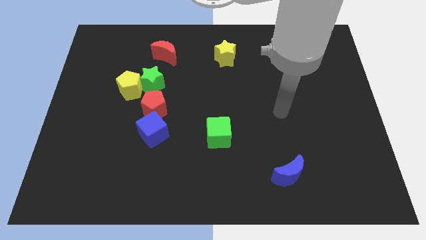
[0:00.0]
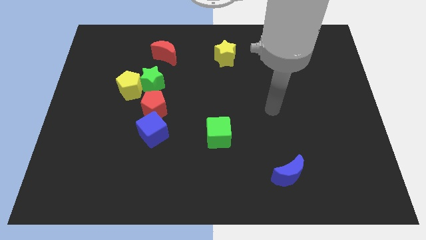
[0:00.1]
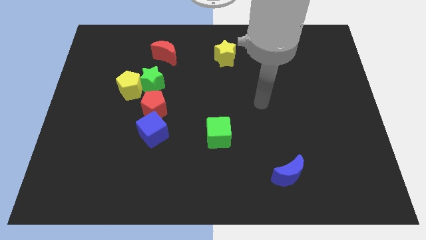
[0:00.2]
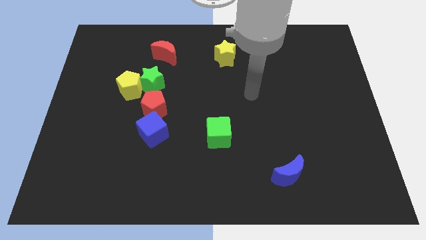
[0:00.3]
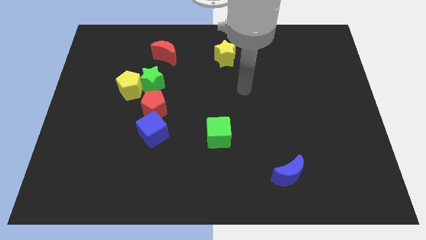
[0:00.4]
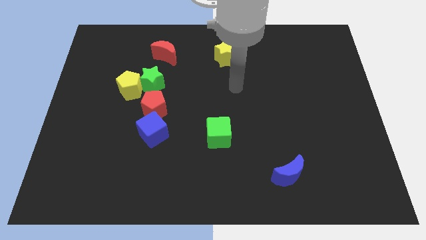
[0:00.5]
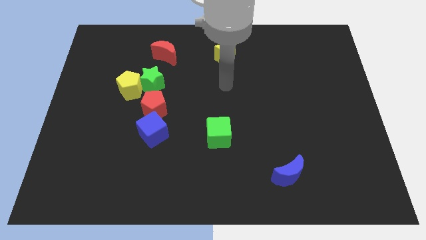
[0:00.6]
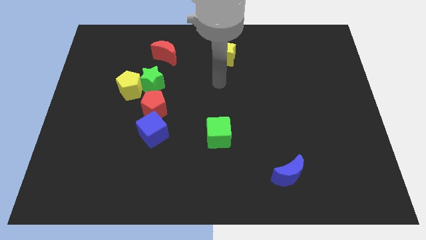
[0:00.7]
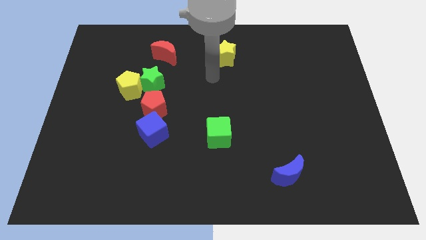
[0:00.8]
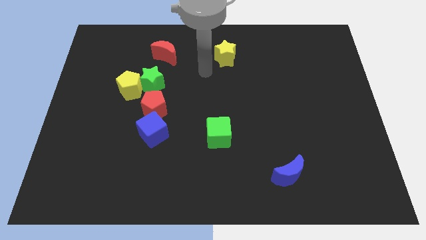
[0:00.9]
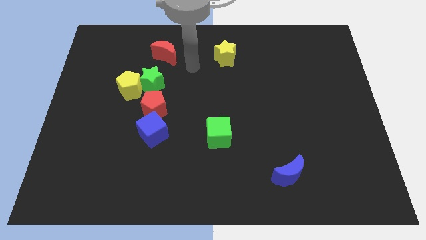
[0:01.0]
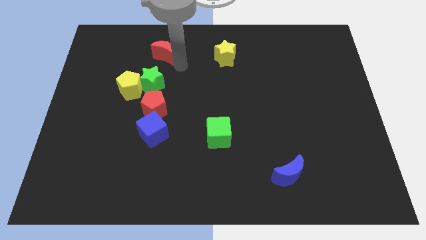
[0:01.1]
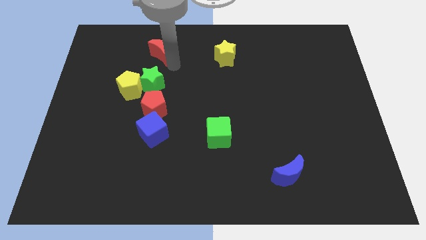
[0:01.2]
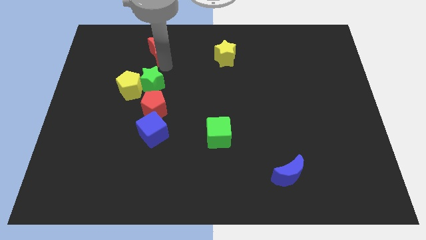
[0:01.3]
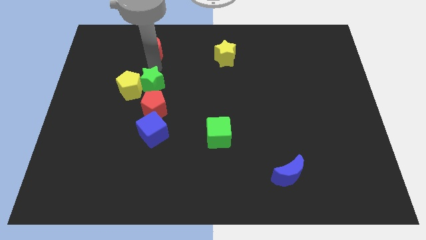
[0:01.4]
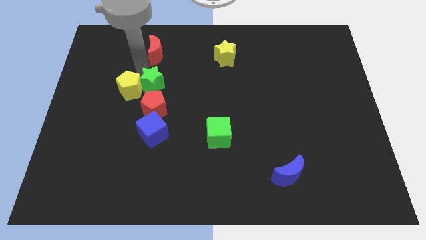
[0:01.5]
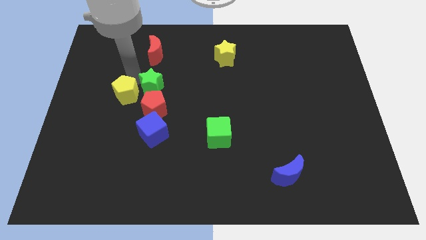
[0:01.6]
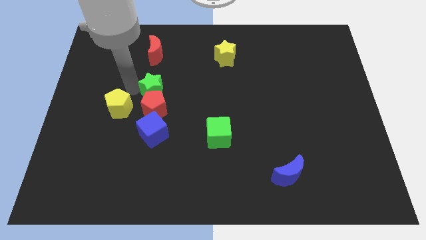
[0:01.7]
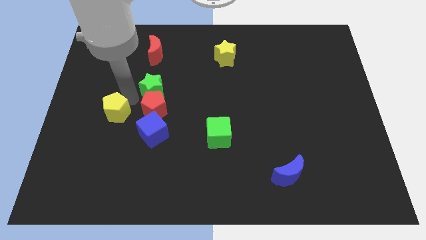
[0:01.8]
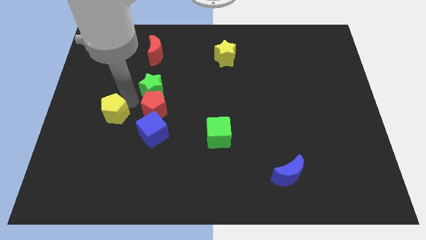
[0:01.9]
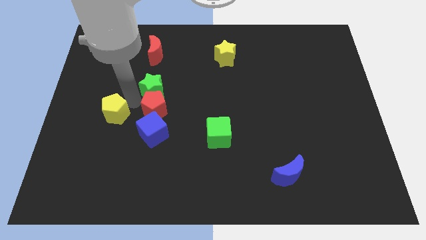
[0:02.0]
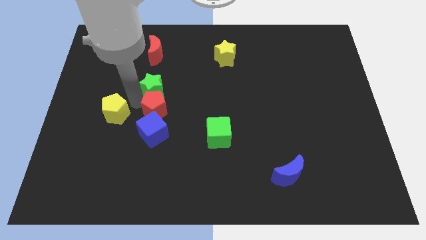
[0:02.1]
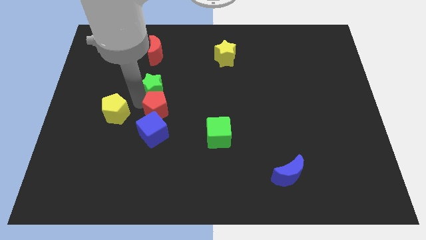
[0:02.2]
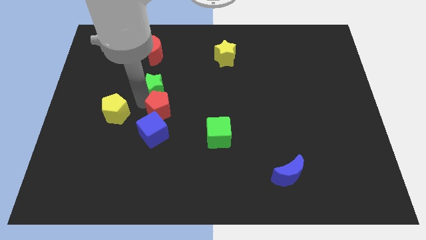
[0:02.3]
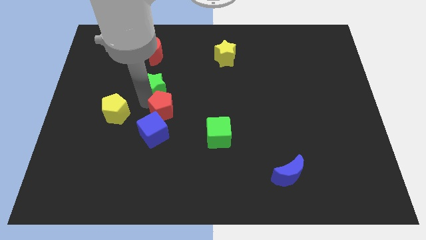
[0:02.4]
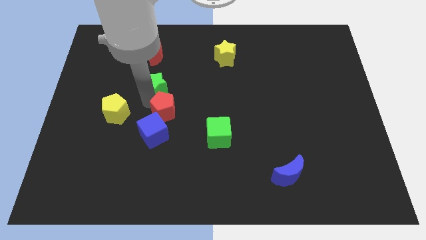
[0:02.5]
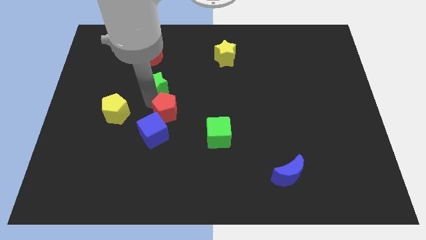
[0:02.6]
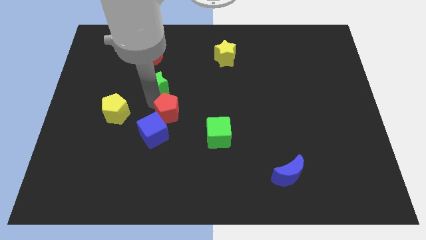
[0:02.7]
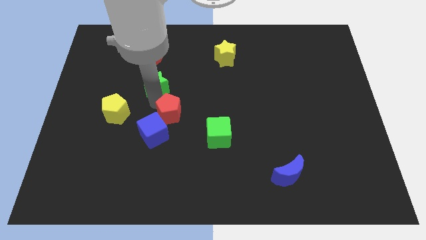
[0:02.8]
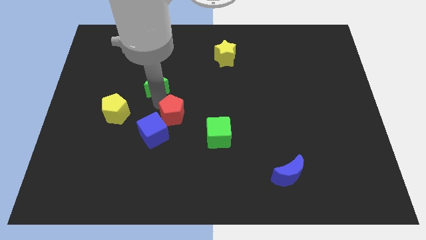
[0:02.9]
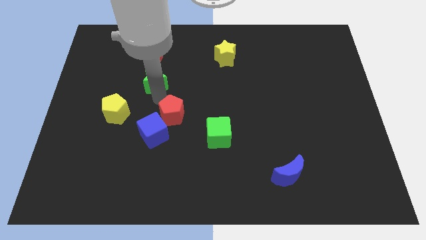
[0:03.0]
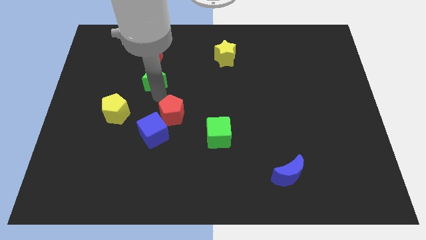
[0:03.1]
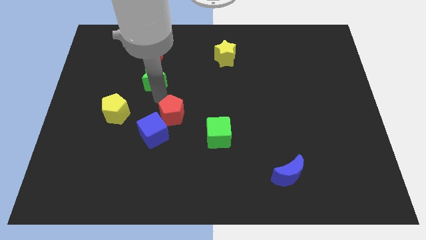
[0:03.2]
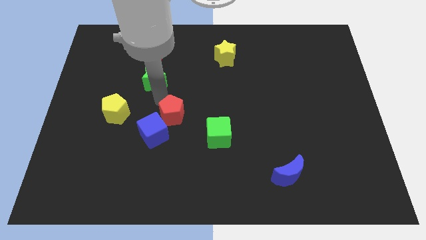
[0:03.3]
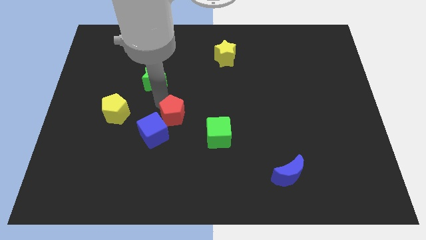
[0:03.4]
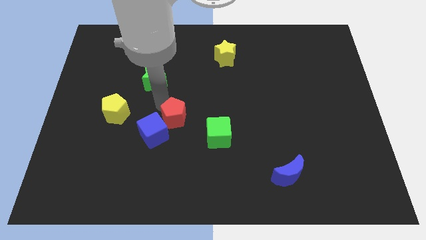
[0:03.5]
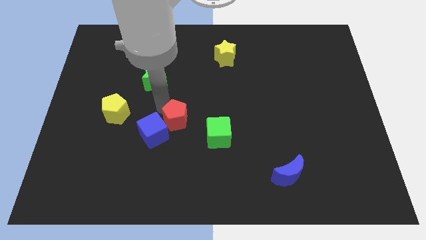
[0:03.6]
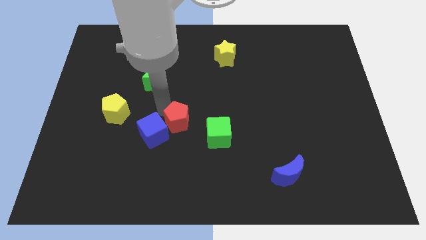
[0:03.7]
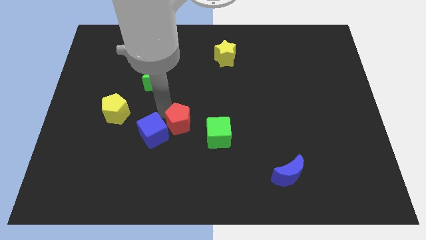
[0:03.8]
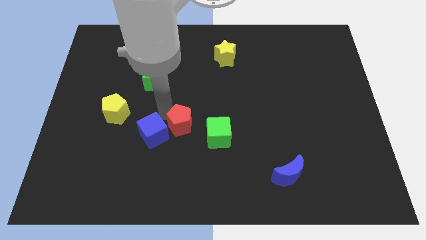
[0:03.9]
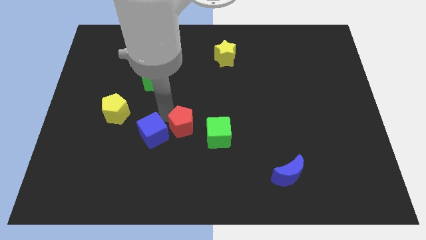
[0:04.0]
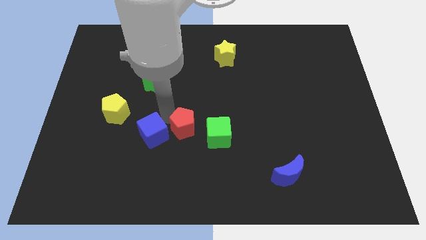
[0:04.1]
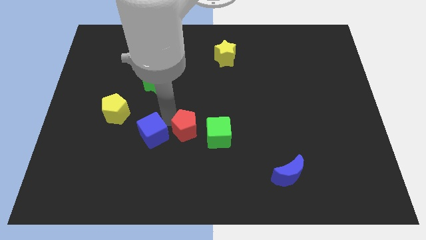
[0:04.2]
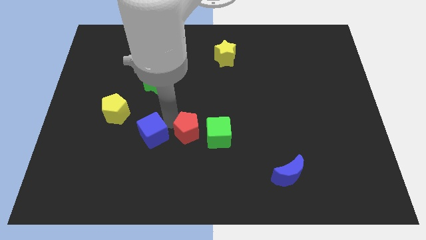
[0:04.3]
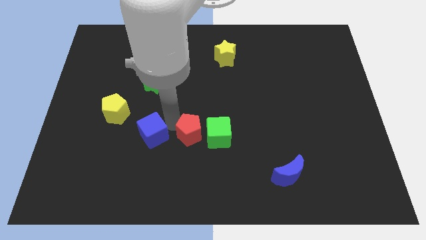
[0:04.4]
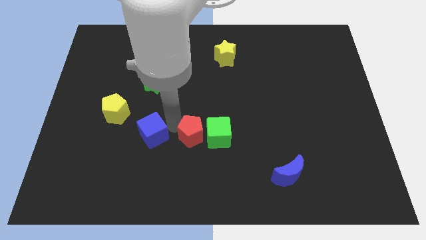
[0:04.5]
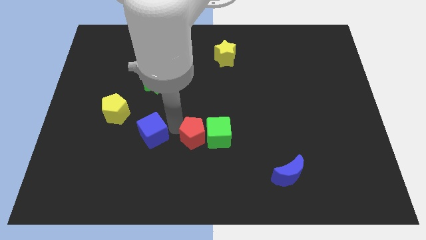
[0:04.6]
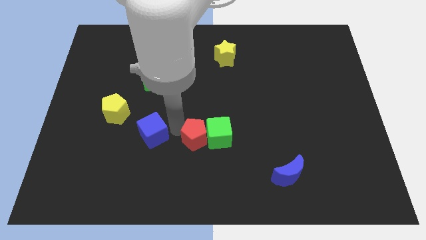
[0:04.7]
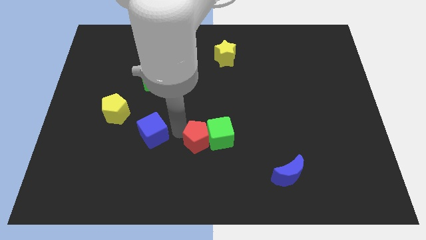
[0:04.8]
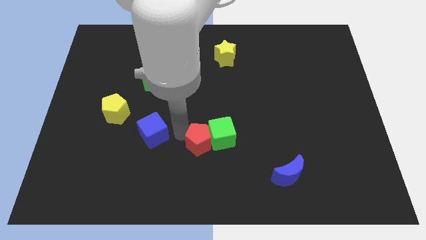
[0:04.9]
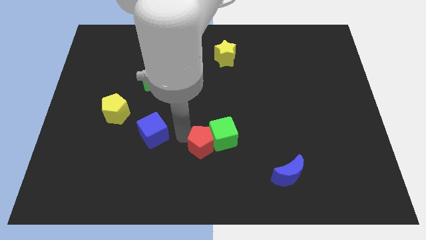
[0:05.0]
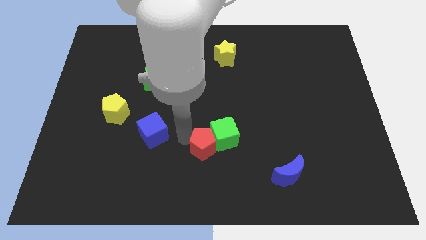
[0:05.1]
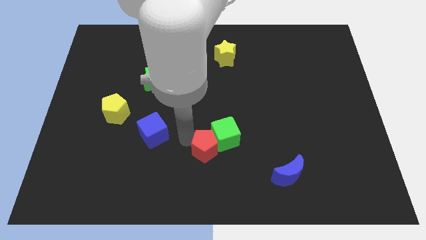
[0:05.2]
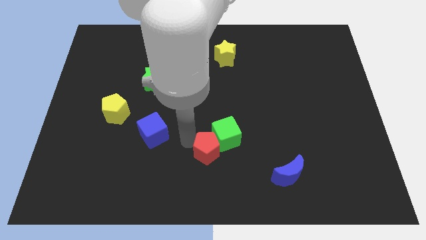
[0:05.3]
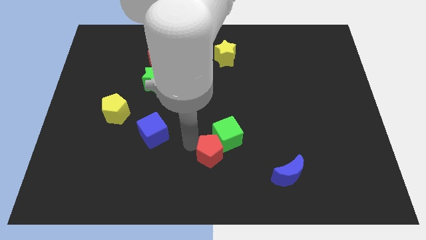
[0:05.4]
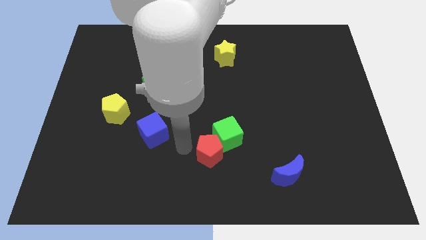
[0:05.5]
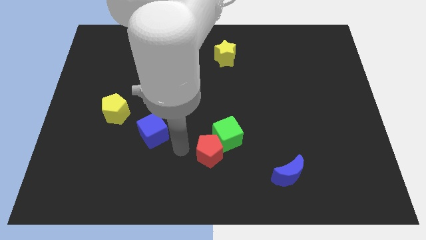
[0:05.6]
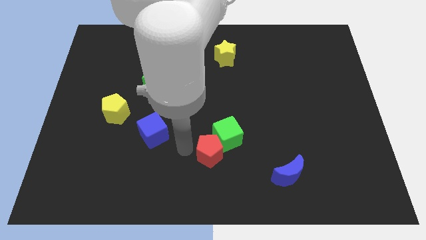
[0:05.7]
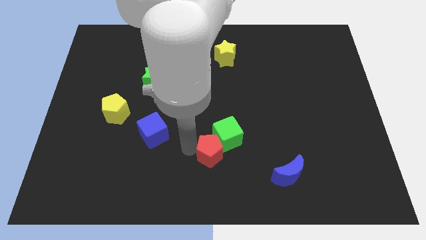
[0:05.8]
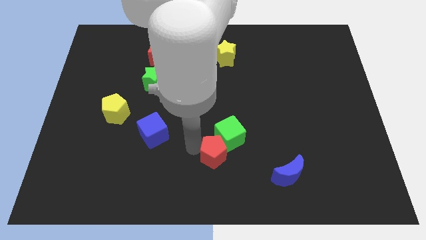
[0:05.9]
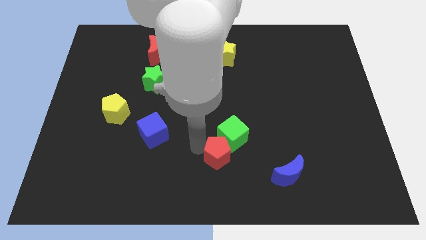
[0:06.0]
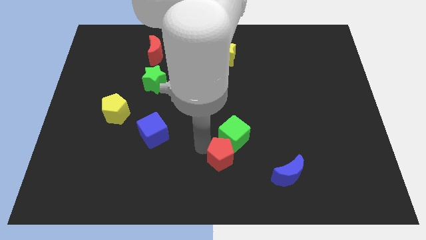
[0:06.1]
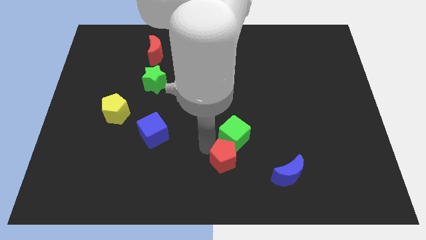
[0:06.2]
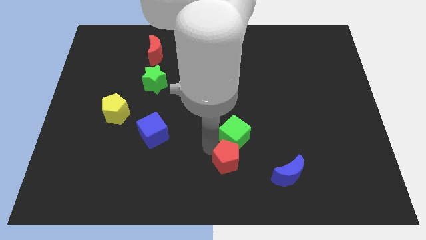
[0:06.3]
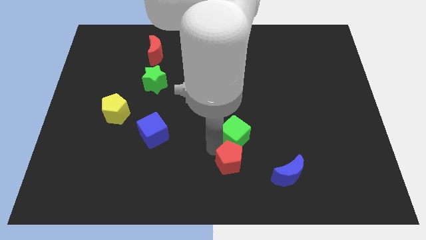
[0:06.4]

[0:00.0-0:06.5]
put the red pentagon to the bottom right side of the green cube
